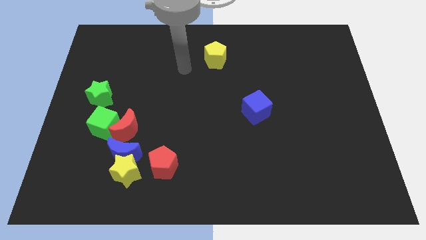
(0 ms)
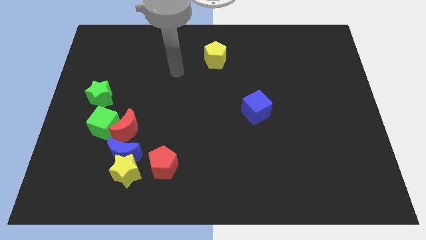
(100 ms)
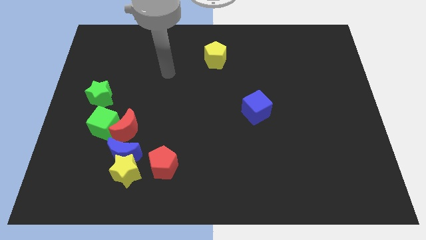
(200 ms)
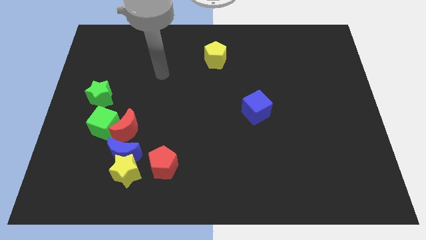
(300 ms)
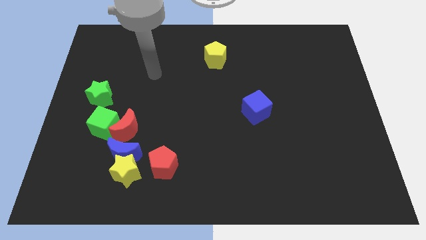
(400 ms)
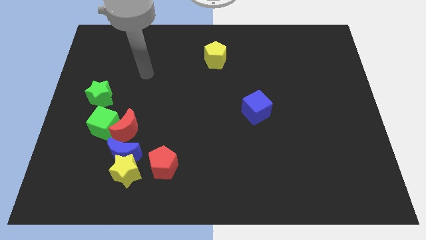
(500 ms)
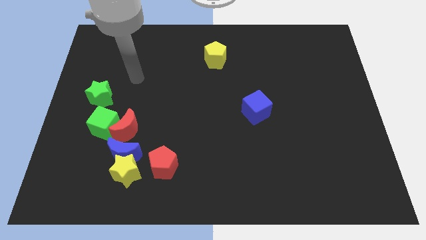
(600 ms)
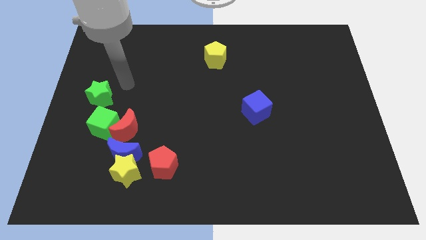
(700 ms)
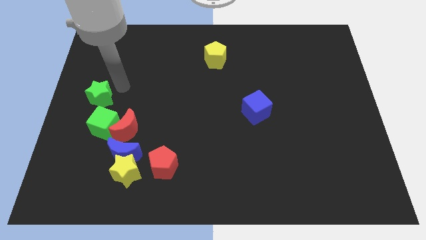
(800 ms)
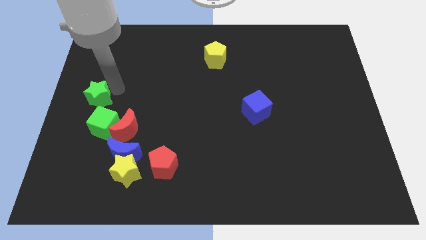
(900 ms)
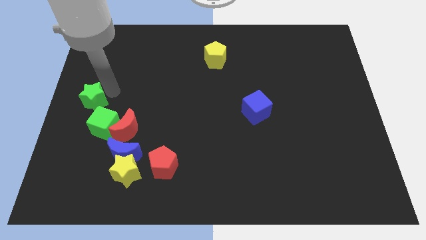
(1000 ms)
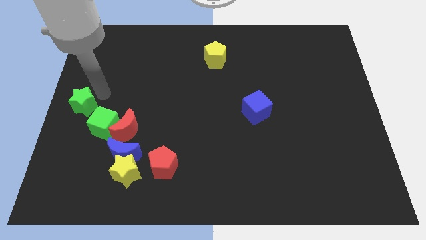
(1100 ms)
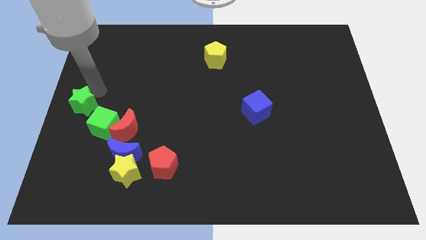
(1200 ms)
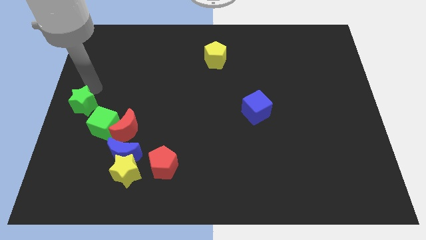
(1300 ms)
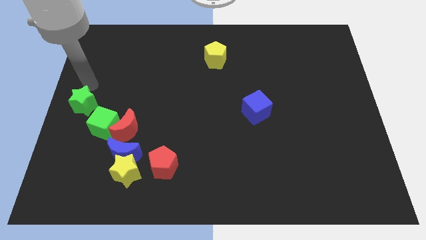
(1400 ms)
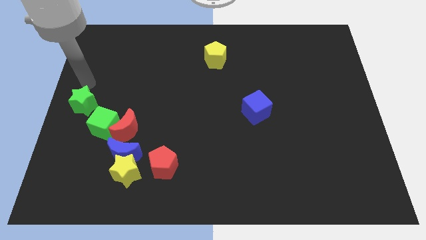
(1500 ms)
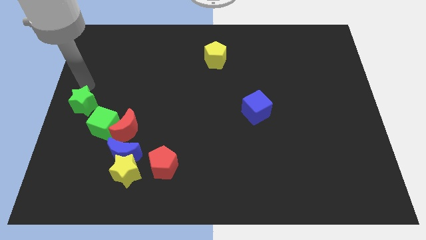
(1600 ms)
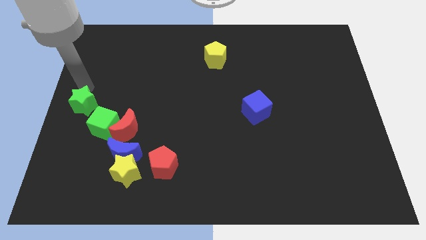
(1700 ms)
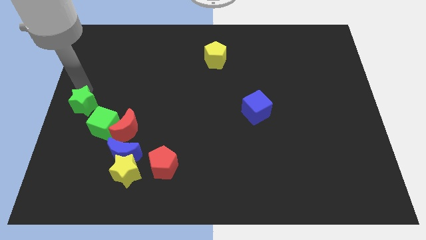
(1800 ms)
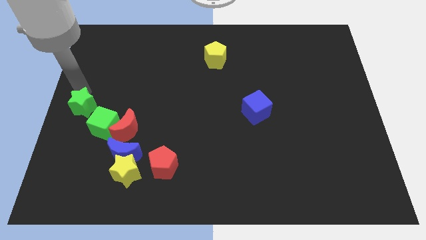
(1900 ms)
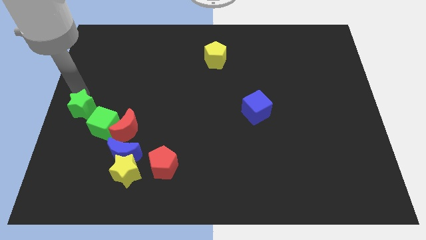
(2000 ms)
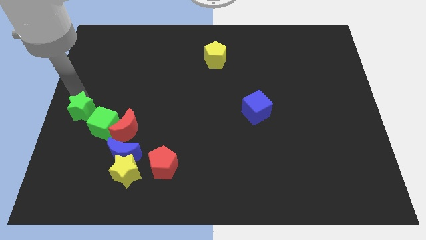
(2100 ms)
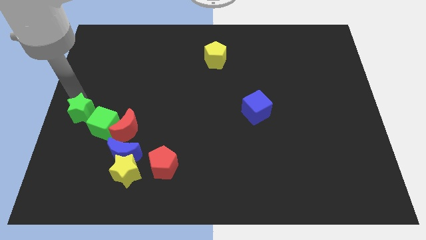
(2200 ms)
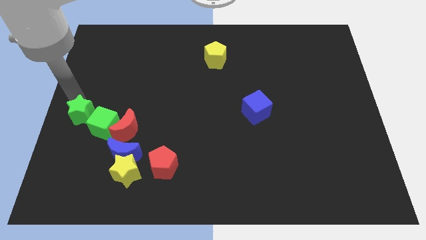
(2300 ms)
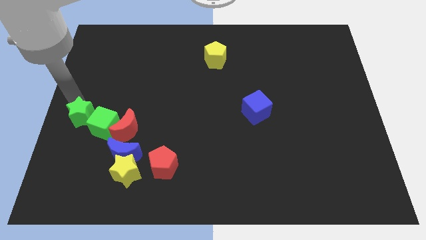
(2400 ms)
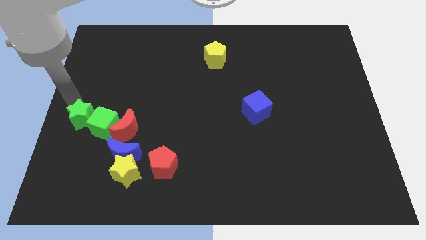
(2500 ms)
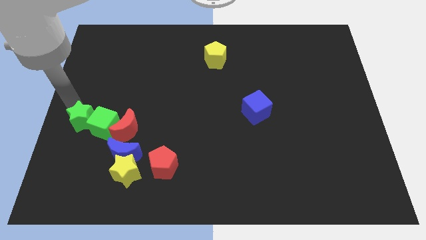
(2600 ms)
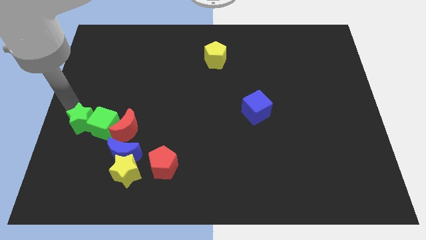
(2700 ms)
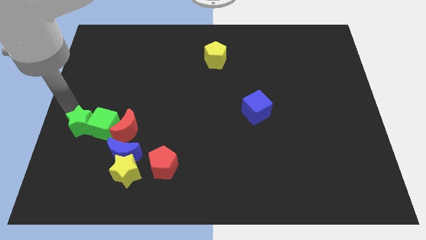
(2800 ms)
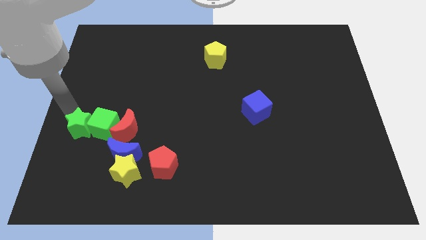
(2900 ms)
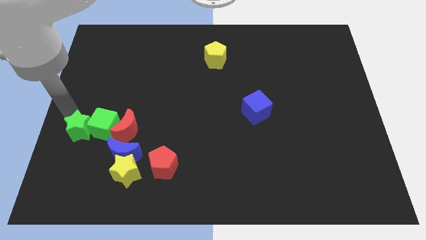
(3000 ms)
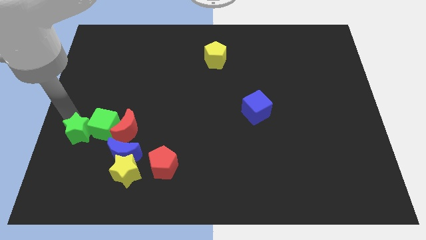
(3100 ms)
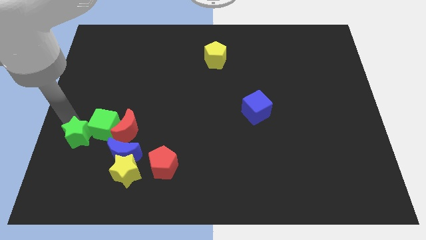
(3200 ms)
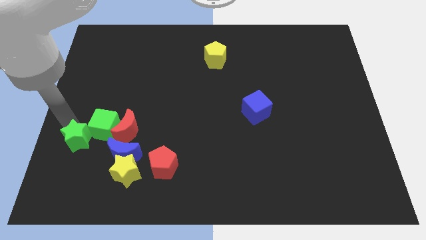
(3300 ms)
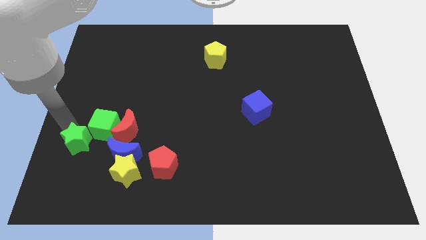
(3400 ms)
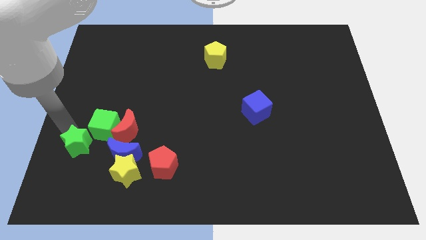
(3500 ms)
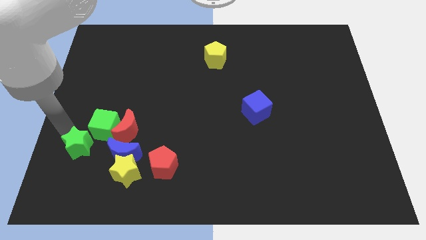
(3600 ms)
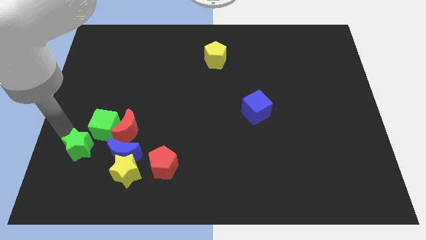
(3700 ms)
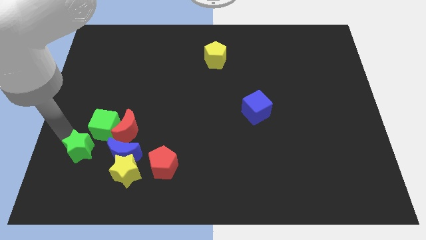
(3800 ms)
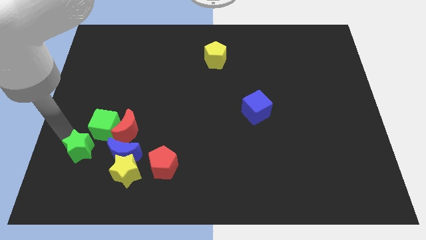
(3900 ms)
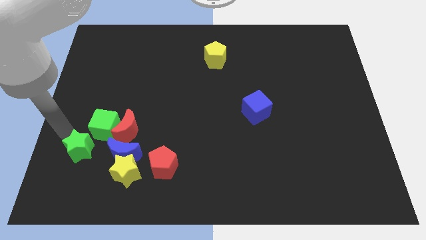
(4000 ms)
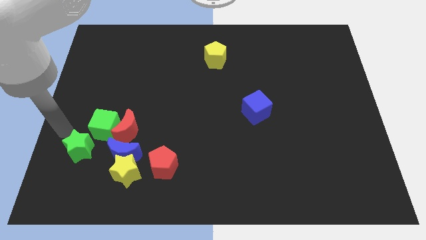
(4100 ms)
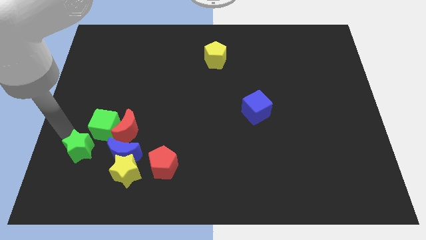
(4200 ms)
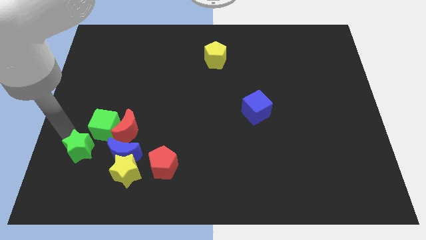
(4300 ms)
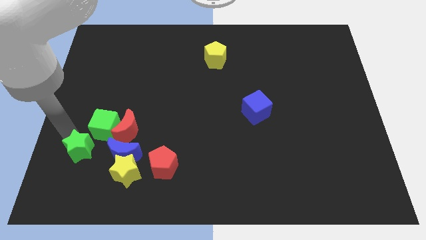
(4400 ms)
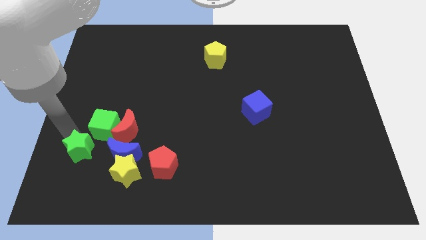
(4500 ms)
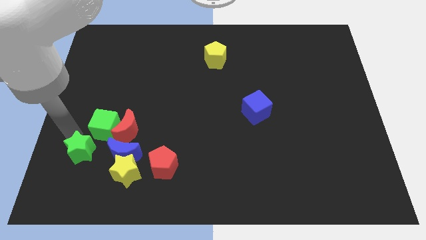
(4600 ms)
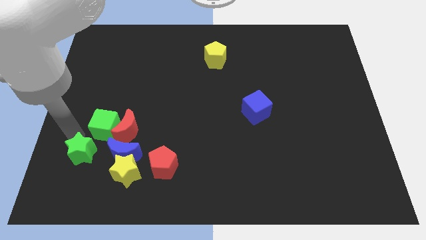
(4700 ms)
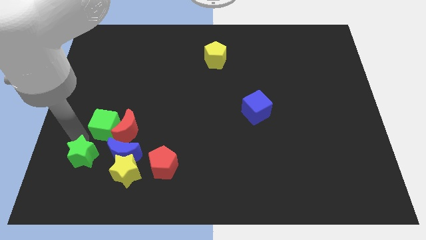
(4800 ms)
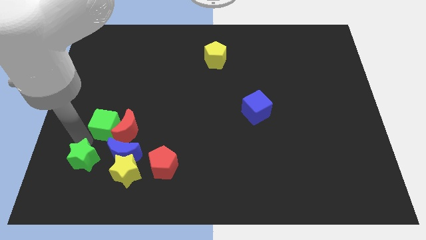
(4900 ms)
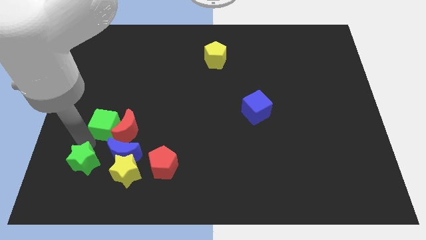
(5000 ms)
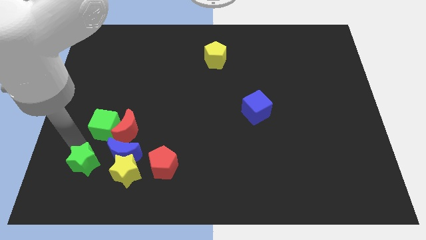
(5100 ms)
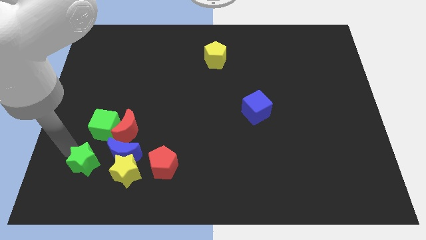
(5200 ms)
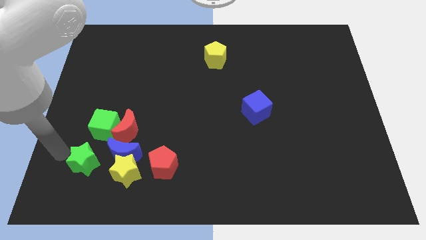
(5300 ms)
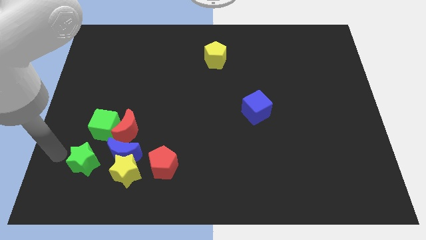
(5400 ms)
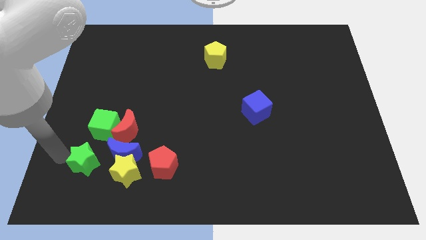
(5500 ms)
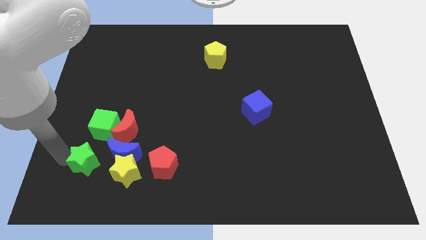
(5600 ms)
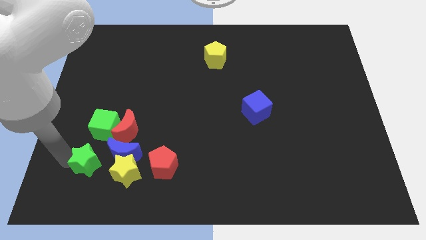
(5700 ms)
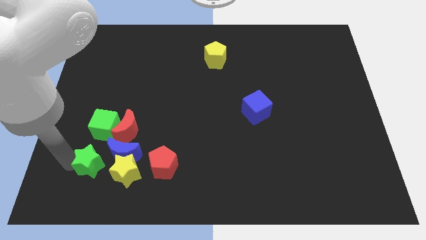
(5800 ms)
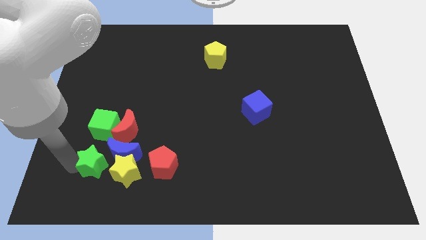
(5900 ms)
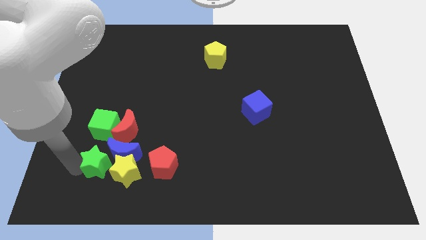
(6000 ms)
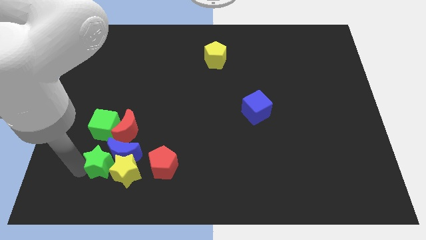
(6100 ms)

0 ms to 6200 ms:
push the green star towards the yellow star

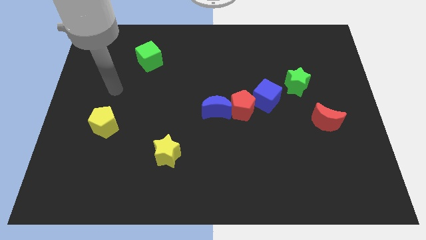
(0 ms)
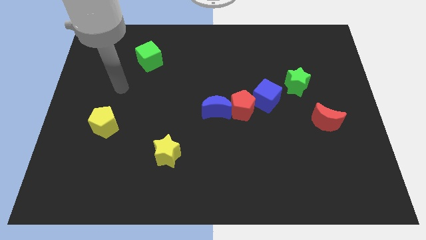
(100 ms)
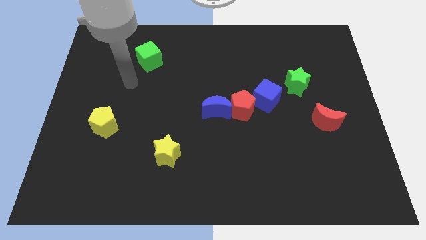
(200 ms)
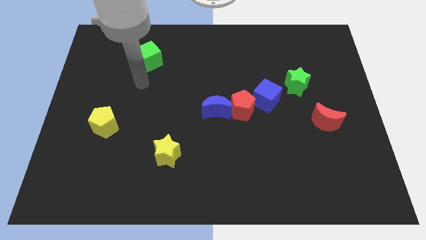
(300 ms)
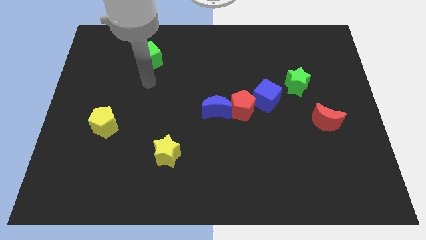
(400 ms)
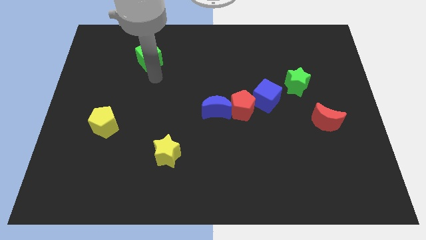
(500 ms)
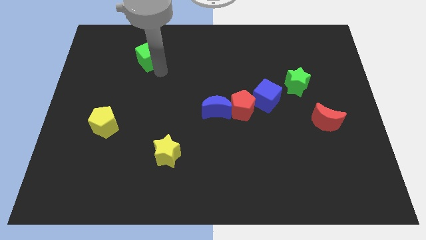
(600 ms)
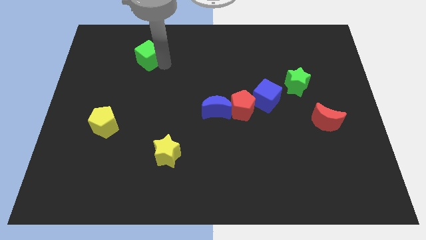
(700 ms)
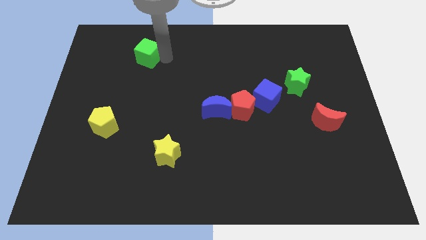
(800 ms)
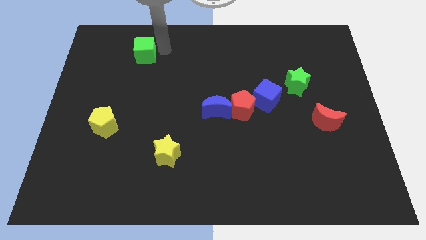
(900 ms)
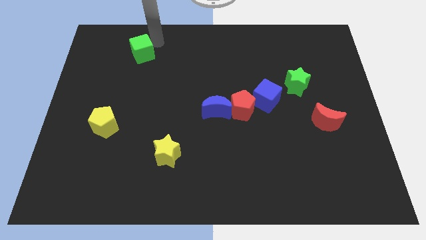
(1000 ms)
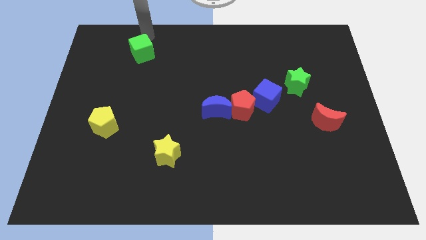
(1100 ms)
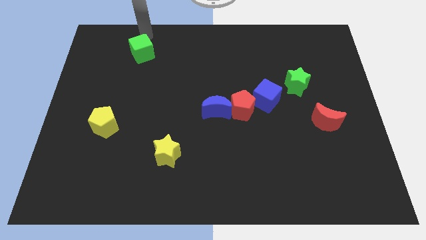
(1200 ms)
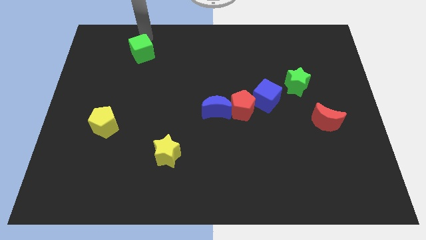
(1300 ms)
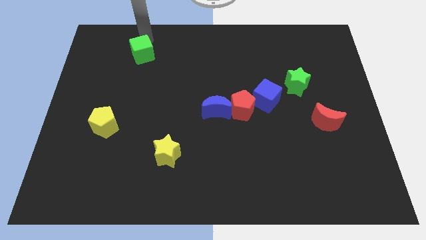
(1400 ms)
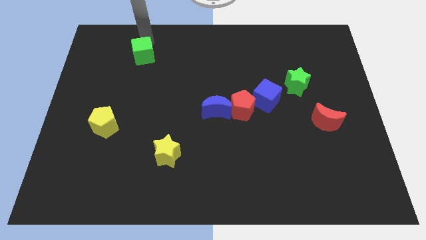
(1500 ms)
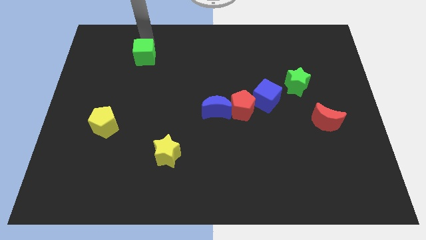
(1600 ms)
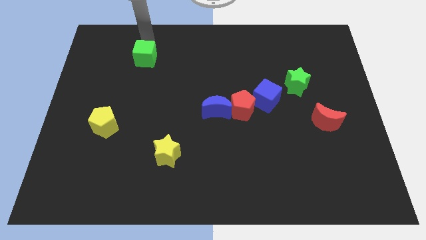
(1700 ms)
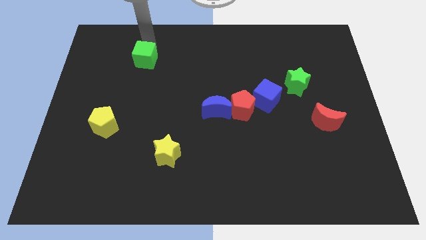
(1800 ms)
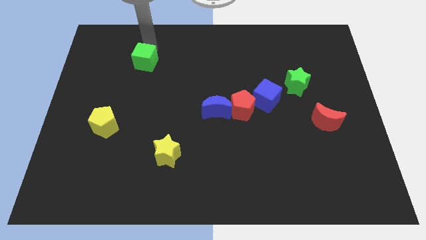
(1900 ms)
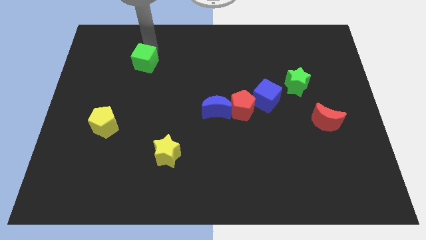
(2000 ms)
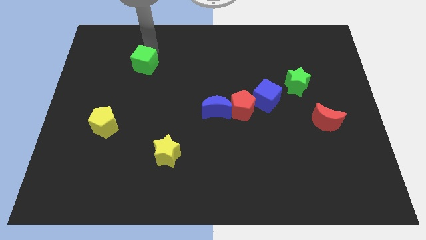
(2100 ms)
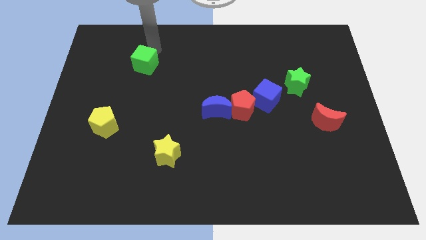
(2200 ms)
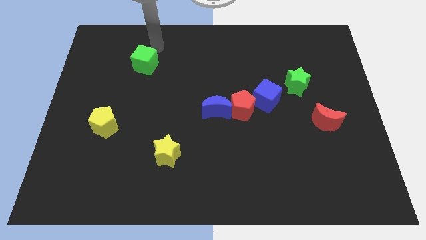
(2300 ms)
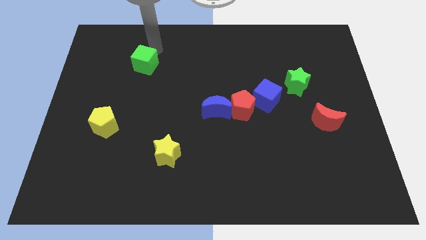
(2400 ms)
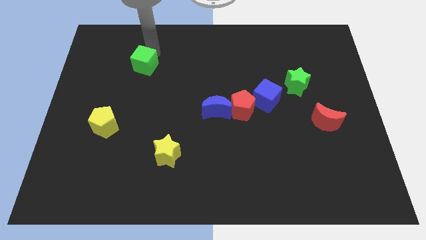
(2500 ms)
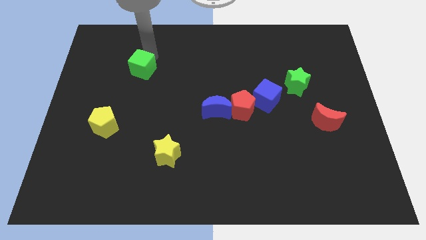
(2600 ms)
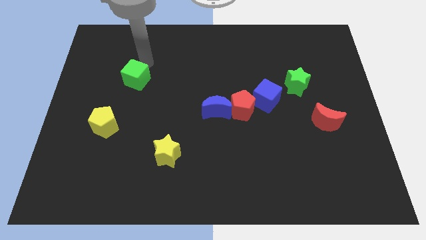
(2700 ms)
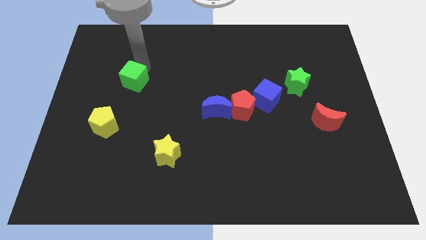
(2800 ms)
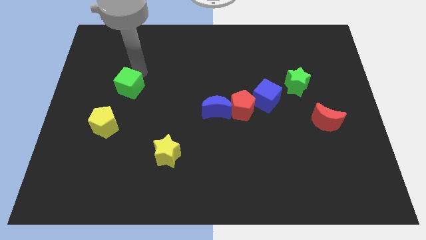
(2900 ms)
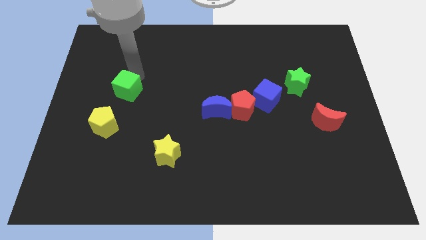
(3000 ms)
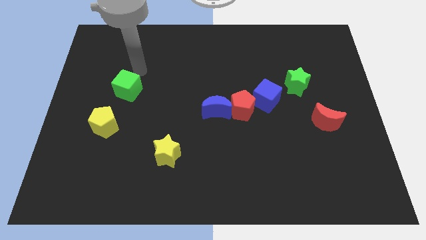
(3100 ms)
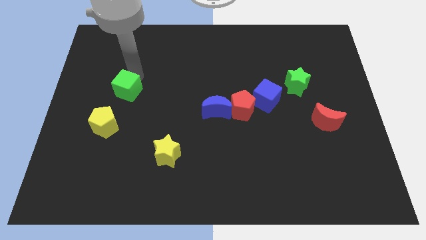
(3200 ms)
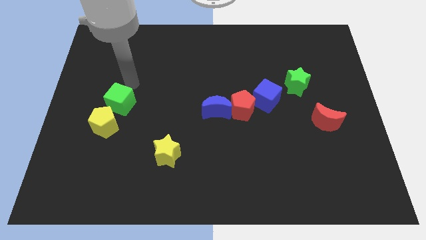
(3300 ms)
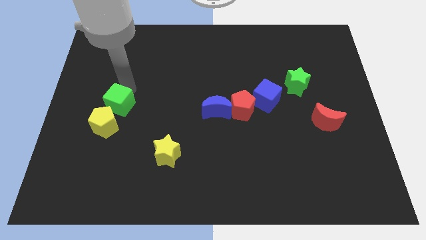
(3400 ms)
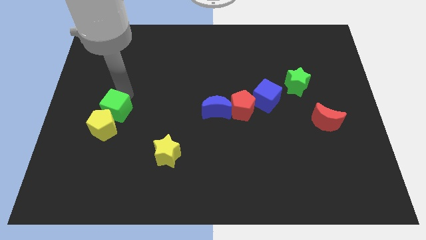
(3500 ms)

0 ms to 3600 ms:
push the green cube close to the yellow pentagon
